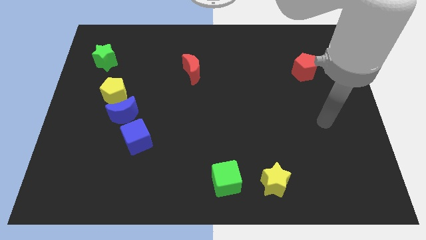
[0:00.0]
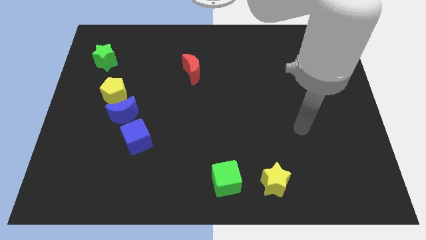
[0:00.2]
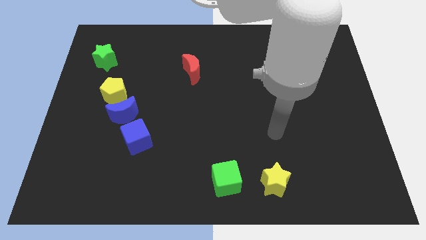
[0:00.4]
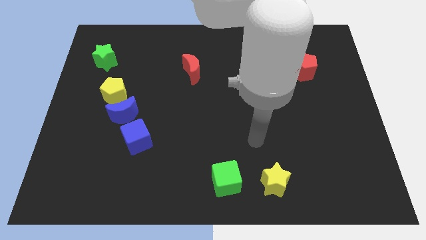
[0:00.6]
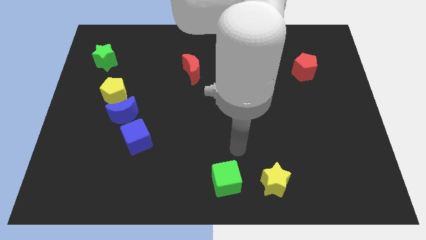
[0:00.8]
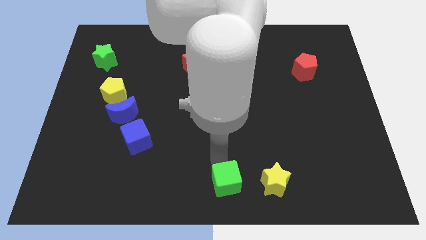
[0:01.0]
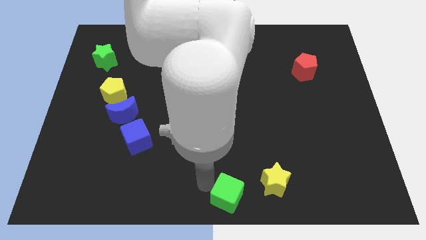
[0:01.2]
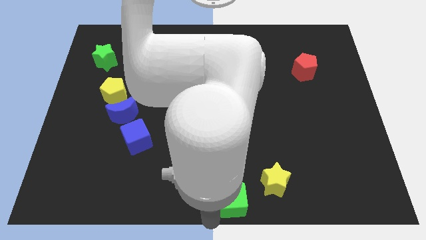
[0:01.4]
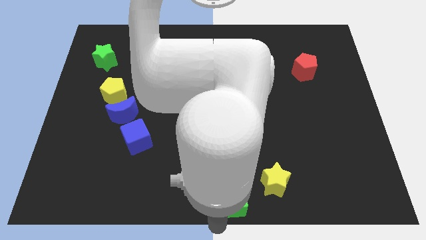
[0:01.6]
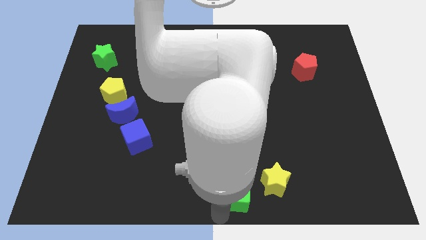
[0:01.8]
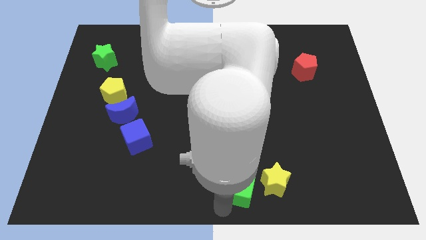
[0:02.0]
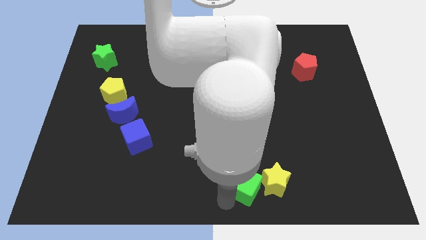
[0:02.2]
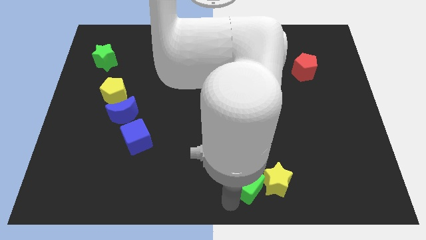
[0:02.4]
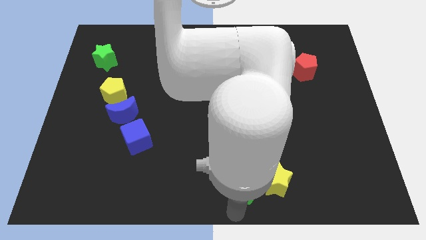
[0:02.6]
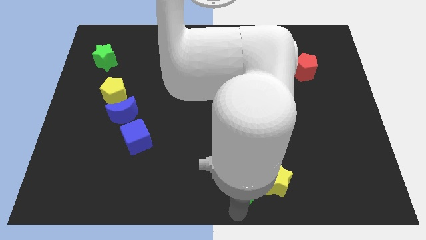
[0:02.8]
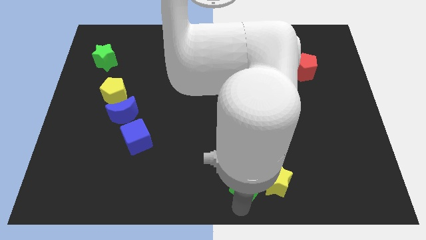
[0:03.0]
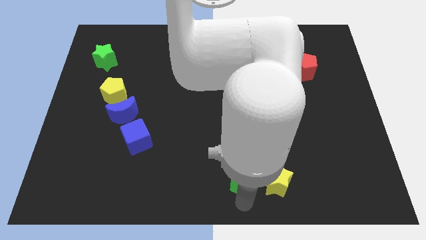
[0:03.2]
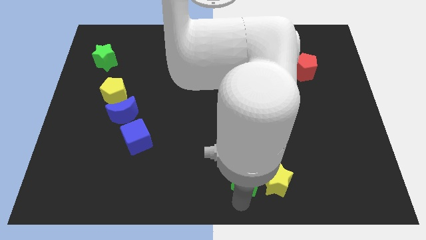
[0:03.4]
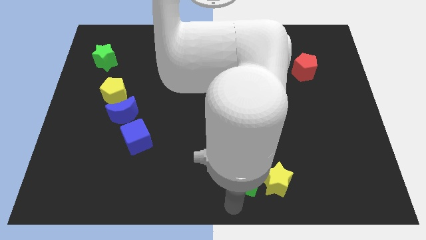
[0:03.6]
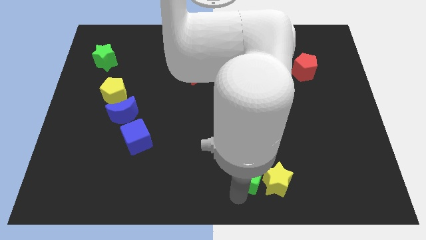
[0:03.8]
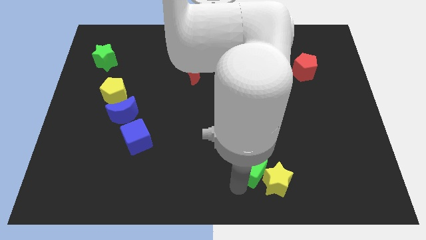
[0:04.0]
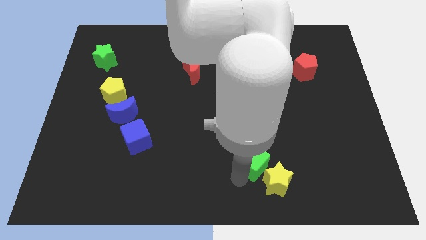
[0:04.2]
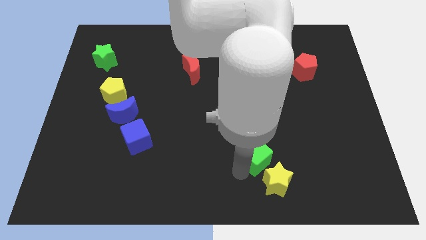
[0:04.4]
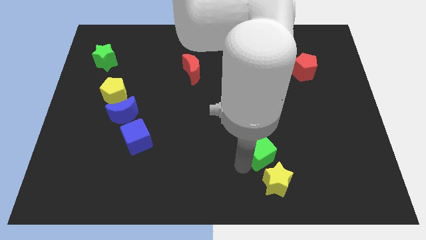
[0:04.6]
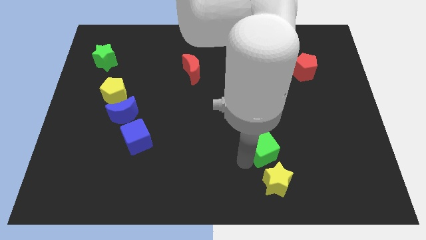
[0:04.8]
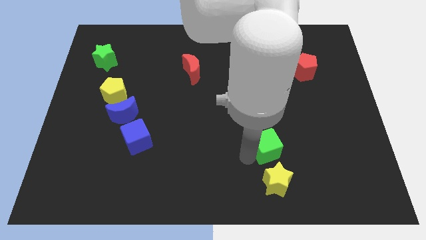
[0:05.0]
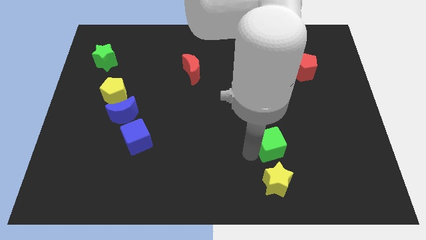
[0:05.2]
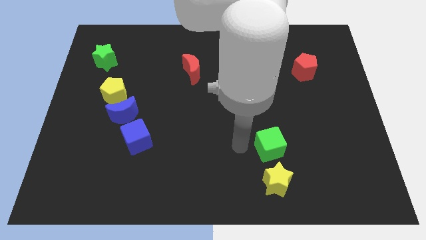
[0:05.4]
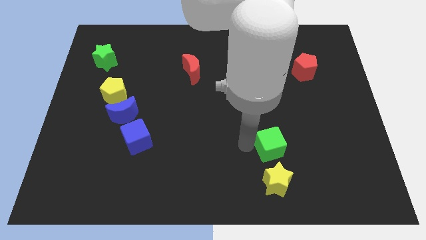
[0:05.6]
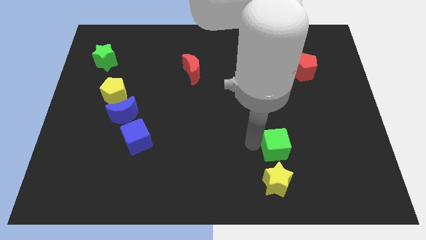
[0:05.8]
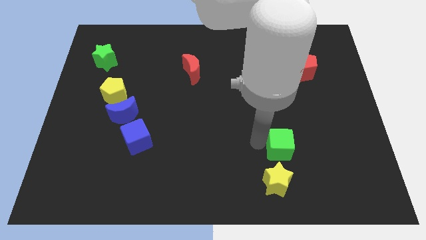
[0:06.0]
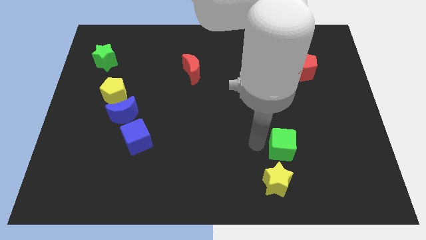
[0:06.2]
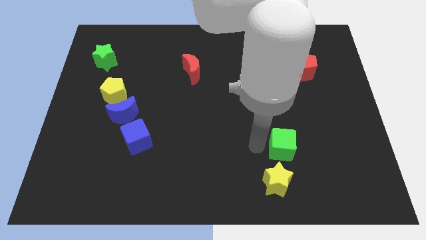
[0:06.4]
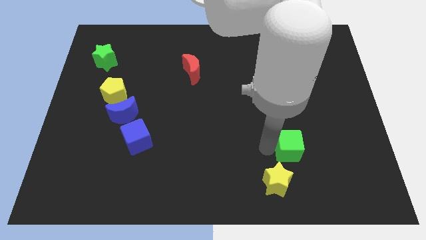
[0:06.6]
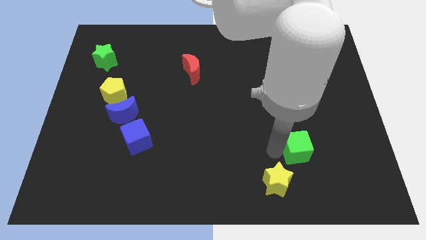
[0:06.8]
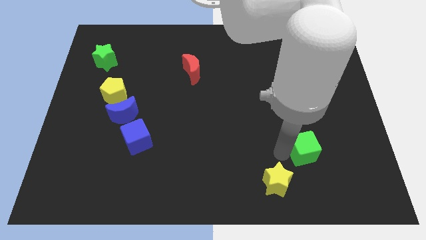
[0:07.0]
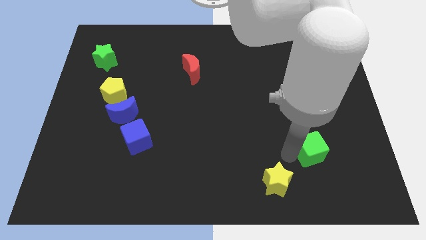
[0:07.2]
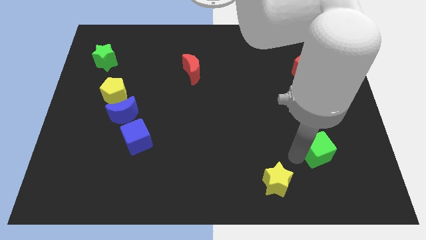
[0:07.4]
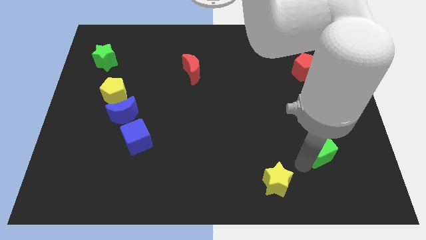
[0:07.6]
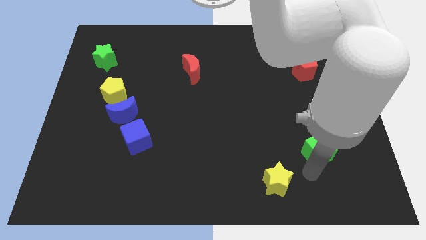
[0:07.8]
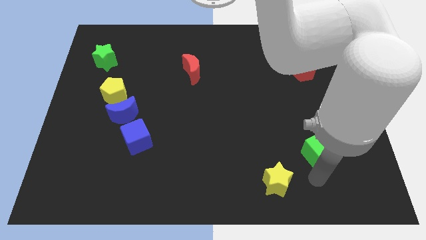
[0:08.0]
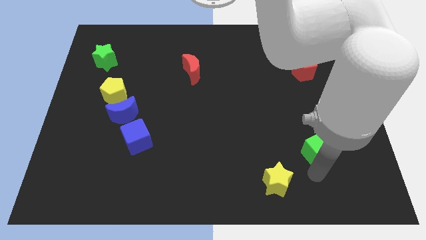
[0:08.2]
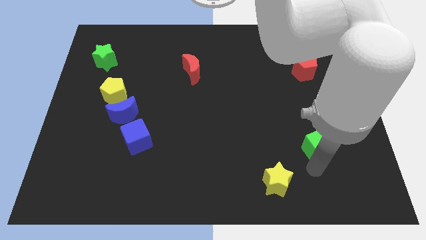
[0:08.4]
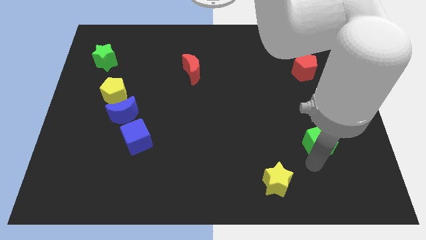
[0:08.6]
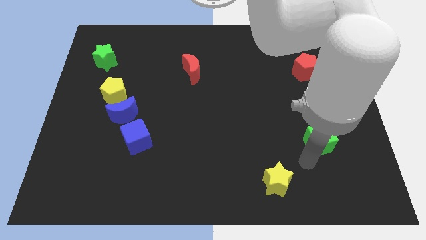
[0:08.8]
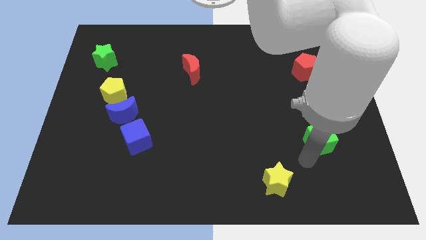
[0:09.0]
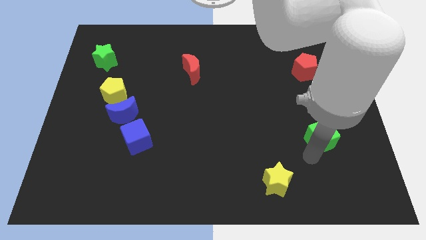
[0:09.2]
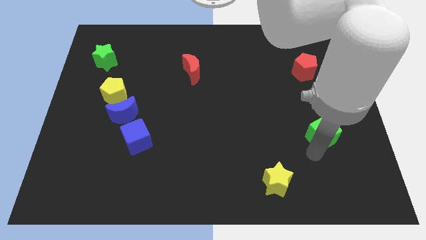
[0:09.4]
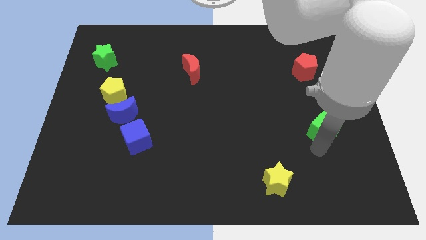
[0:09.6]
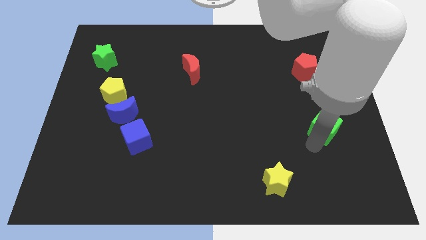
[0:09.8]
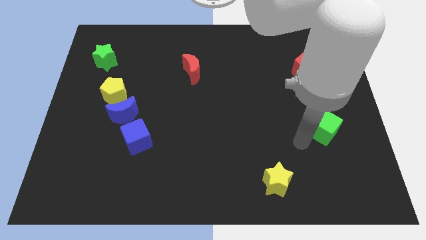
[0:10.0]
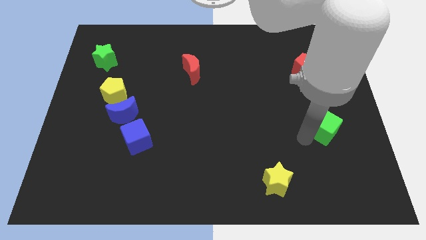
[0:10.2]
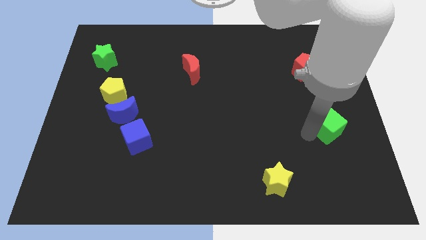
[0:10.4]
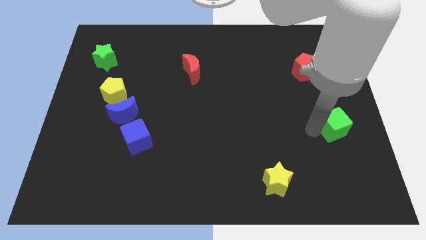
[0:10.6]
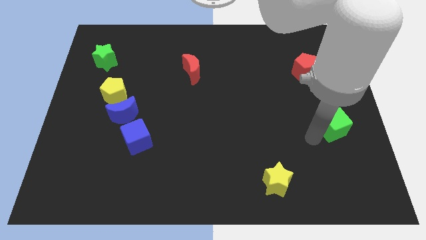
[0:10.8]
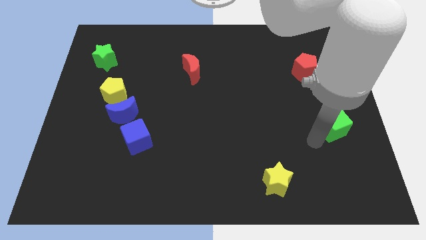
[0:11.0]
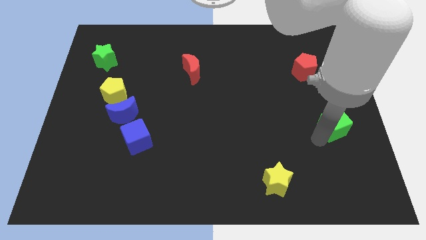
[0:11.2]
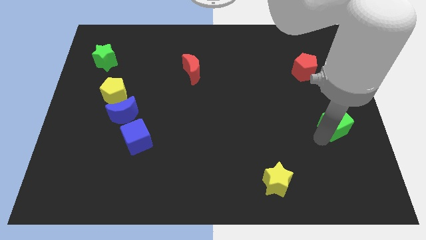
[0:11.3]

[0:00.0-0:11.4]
move the green cube to the right side

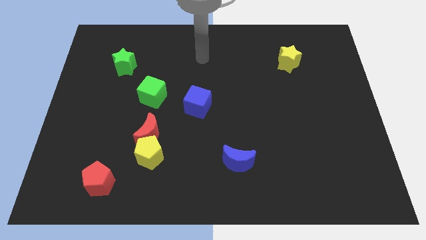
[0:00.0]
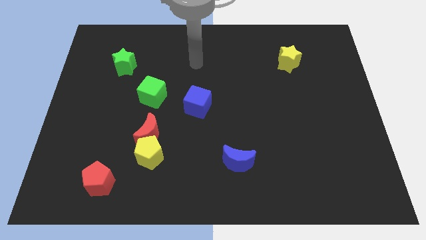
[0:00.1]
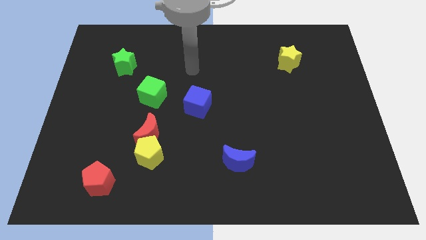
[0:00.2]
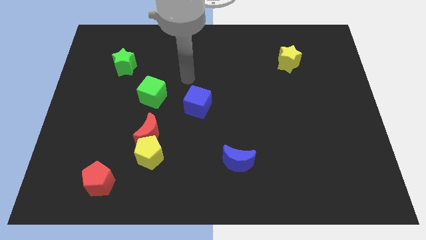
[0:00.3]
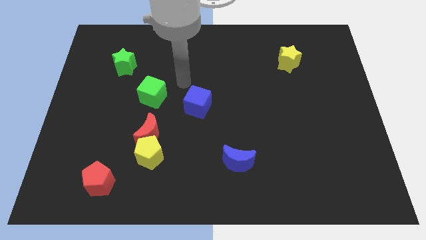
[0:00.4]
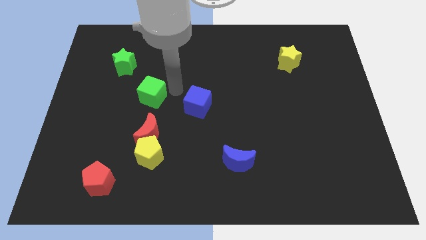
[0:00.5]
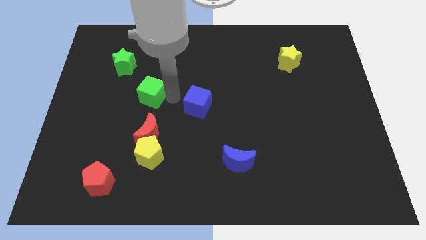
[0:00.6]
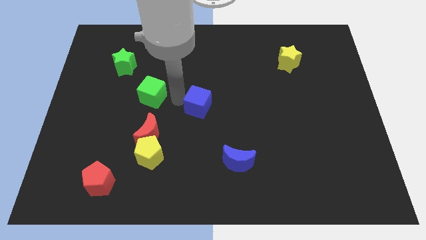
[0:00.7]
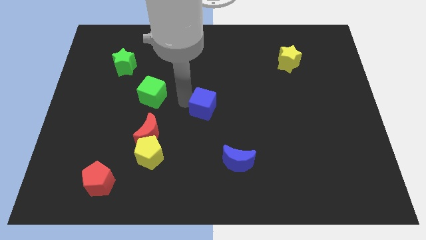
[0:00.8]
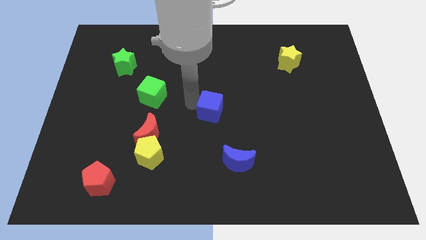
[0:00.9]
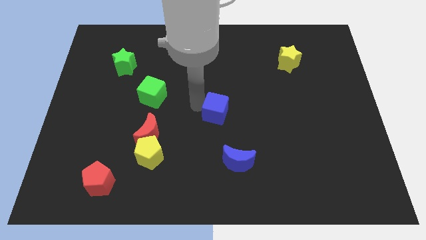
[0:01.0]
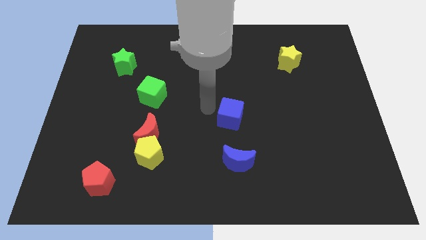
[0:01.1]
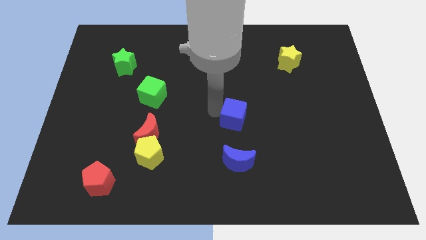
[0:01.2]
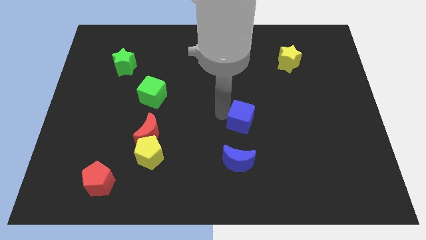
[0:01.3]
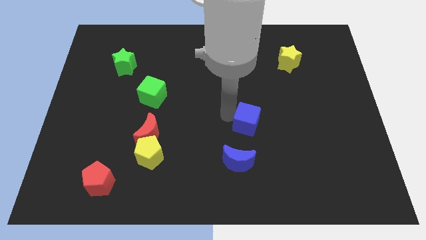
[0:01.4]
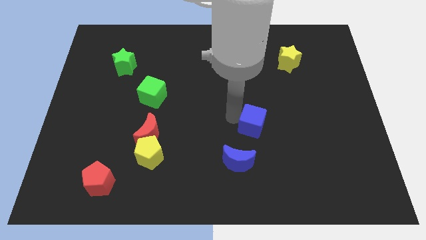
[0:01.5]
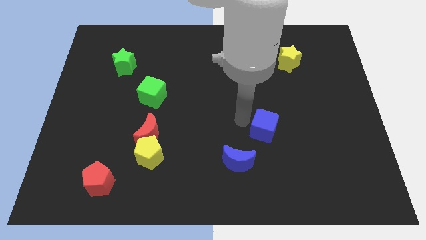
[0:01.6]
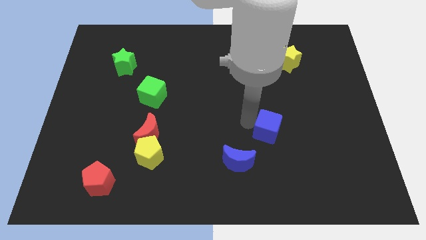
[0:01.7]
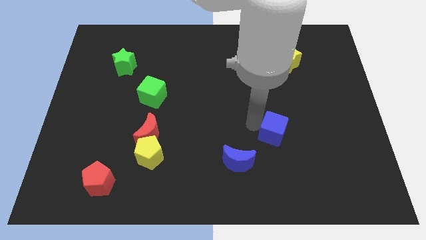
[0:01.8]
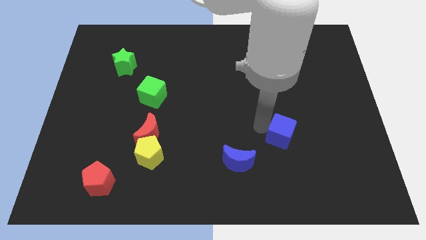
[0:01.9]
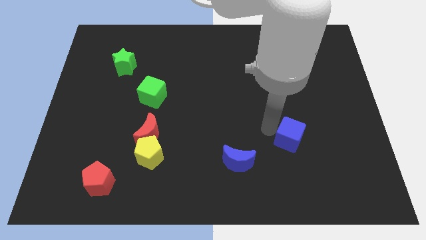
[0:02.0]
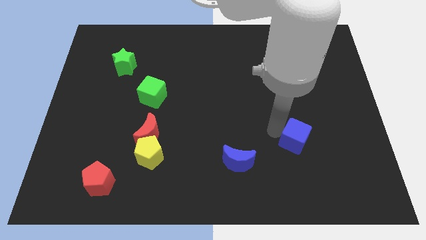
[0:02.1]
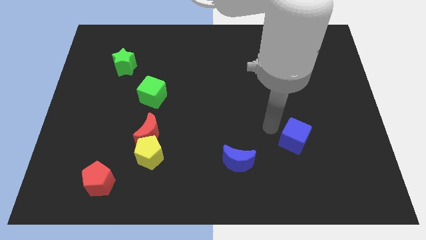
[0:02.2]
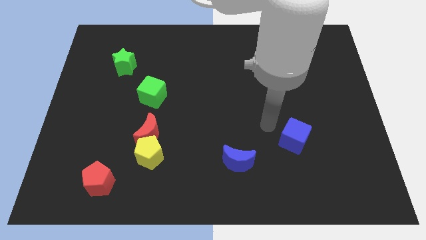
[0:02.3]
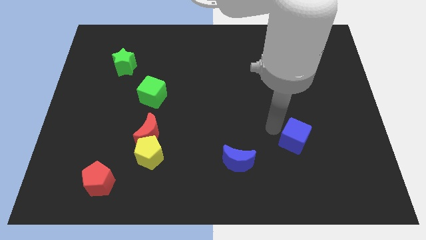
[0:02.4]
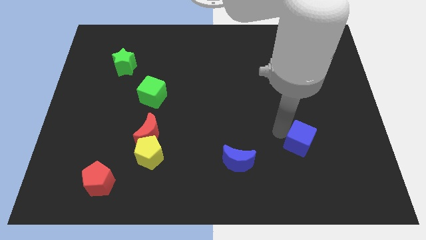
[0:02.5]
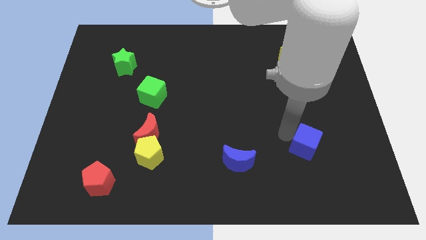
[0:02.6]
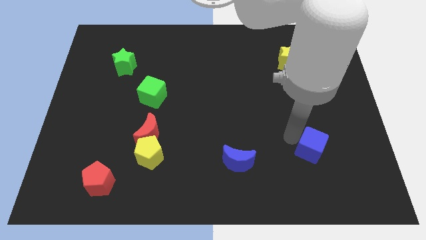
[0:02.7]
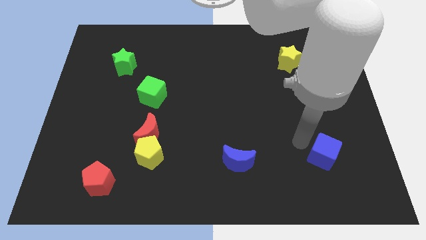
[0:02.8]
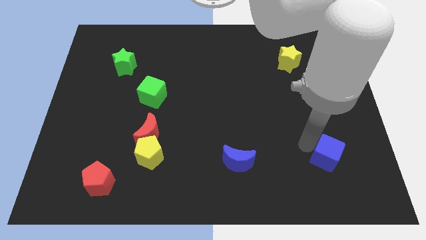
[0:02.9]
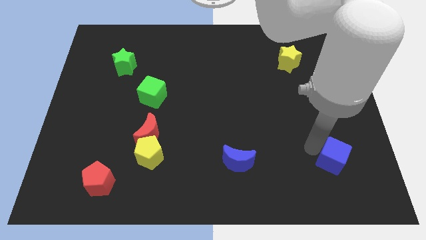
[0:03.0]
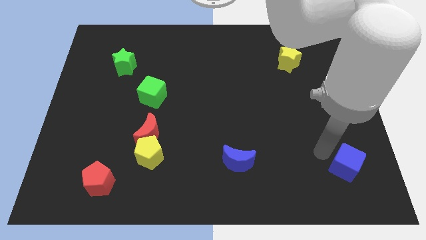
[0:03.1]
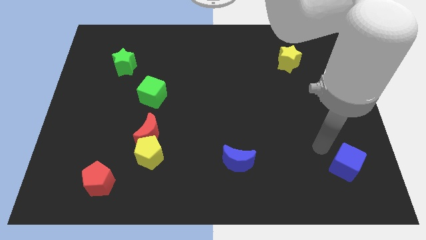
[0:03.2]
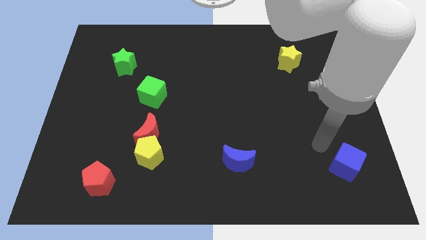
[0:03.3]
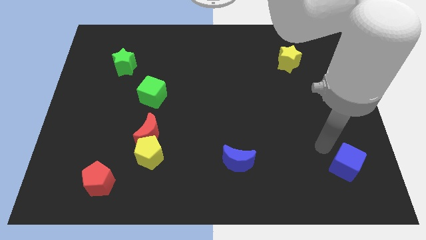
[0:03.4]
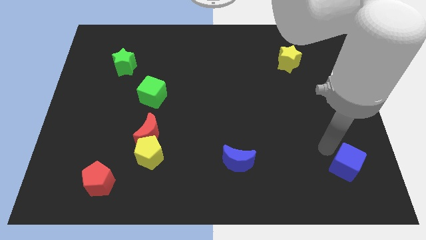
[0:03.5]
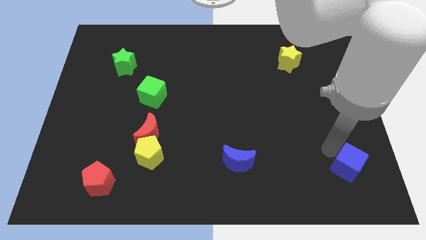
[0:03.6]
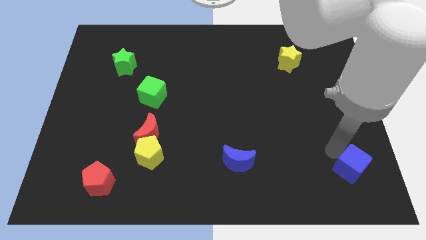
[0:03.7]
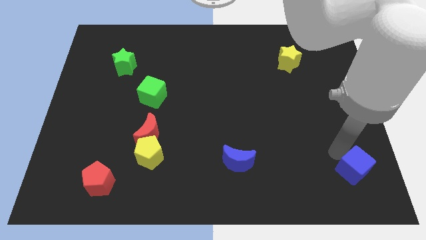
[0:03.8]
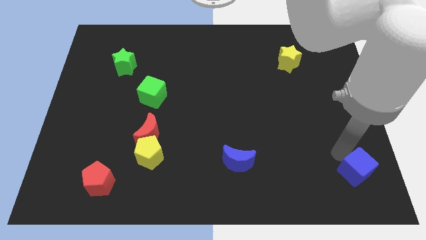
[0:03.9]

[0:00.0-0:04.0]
slide the blue cube to the bottom right of the board
